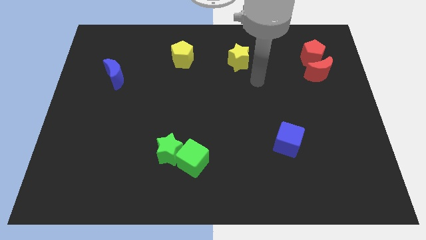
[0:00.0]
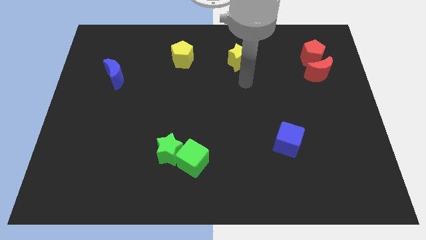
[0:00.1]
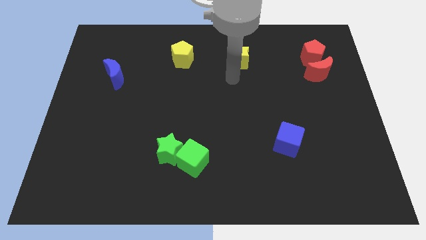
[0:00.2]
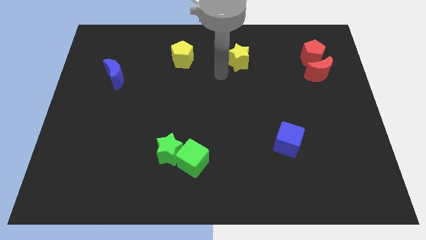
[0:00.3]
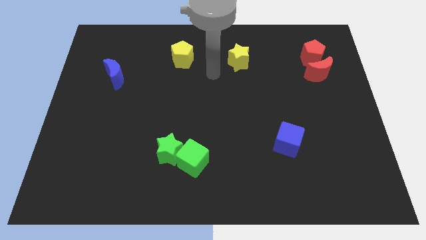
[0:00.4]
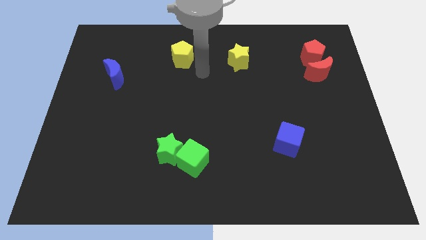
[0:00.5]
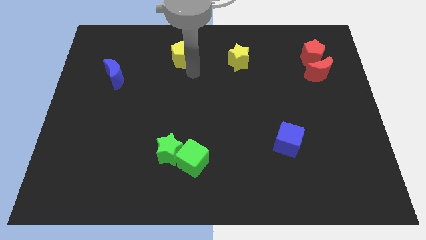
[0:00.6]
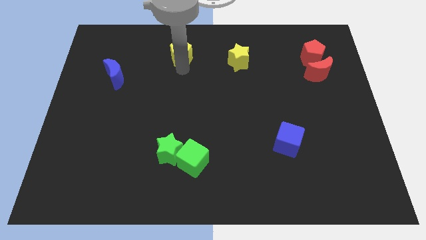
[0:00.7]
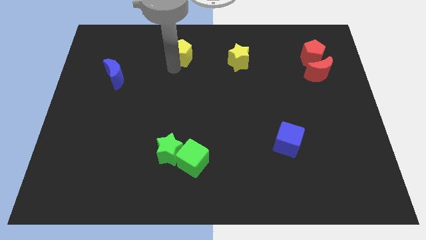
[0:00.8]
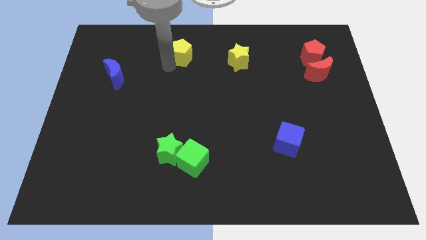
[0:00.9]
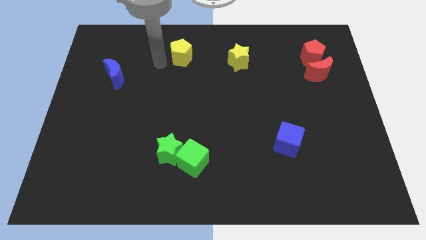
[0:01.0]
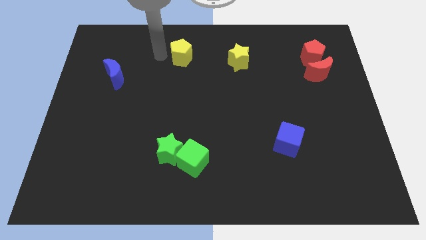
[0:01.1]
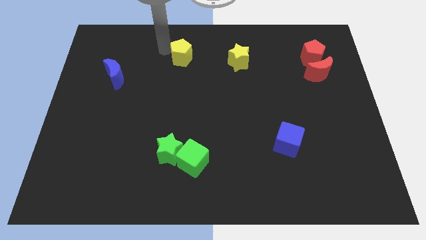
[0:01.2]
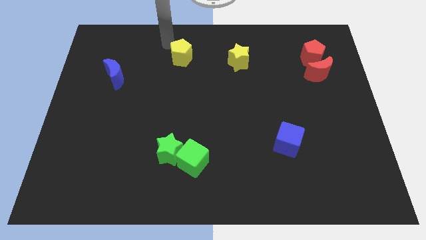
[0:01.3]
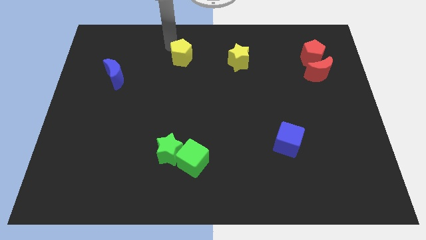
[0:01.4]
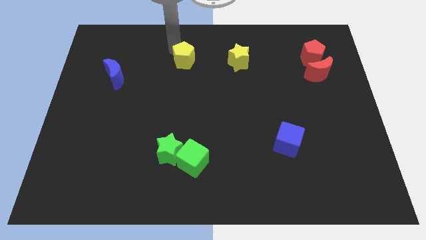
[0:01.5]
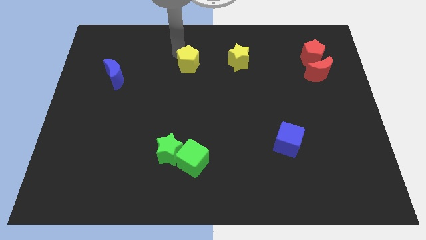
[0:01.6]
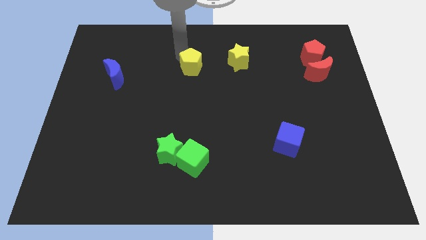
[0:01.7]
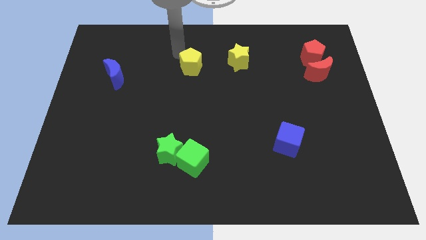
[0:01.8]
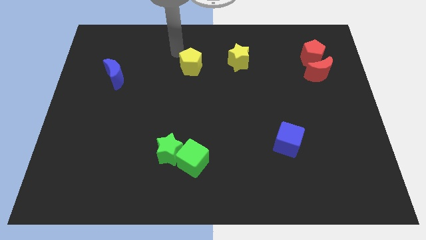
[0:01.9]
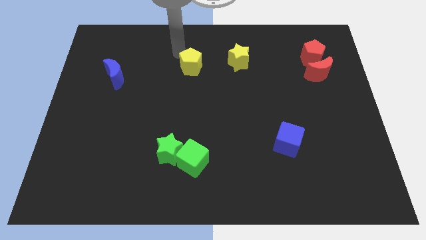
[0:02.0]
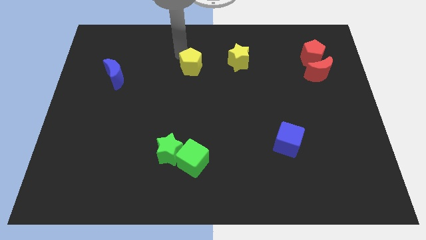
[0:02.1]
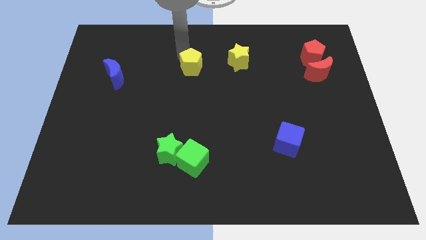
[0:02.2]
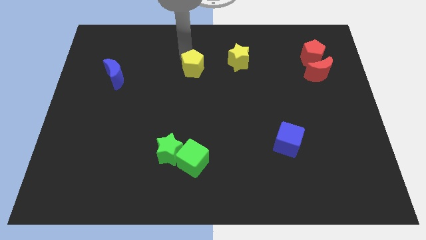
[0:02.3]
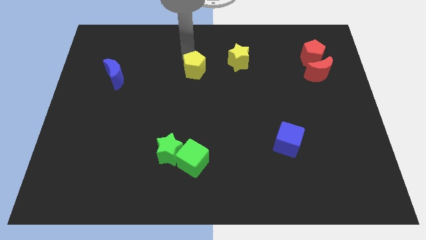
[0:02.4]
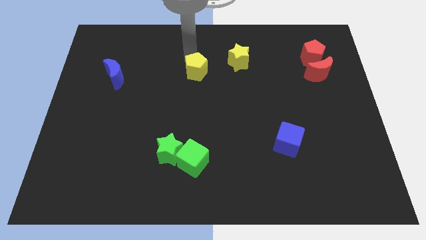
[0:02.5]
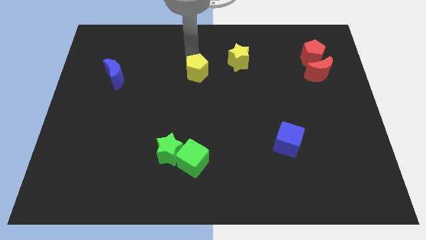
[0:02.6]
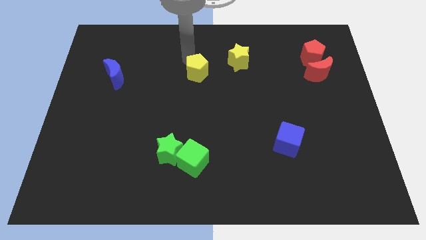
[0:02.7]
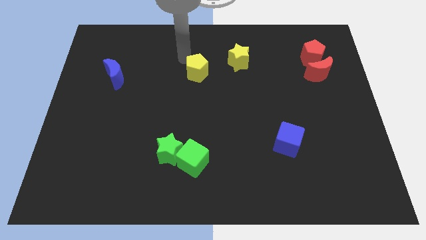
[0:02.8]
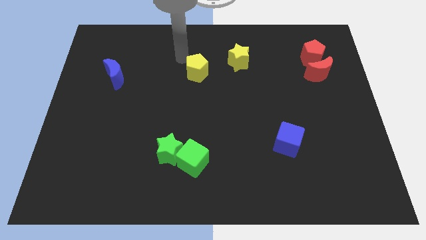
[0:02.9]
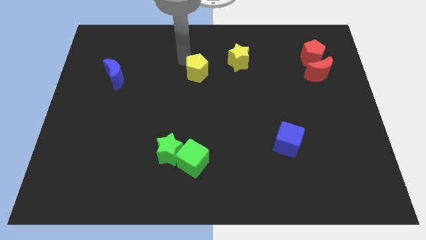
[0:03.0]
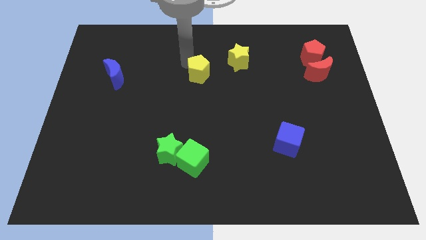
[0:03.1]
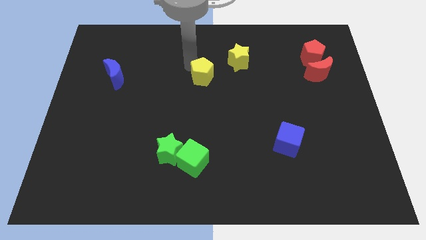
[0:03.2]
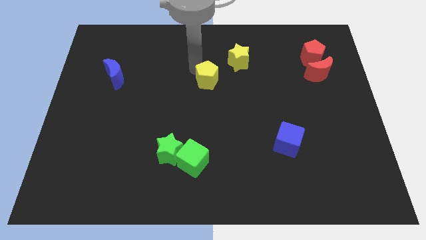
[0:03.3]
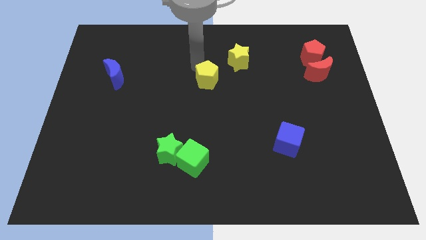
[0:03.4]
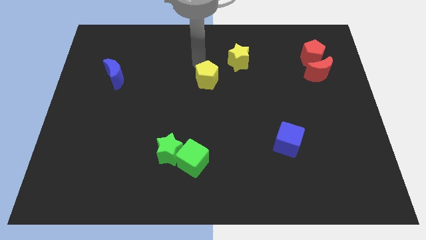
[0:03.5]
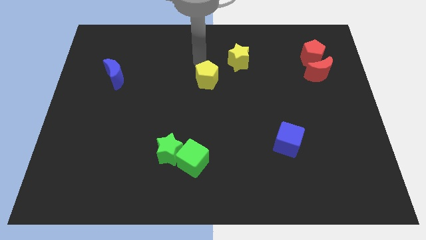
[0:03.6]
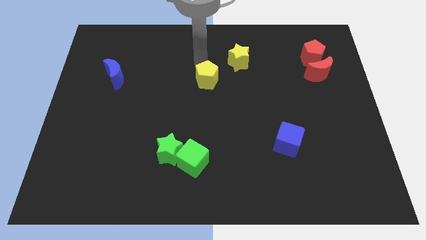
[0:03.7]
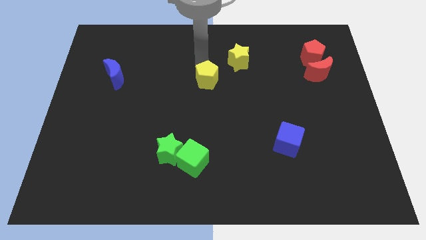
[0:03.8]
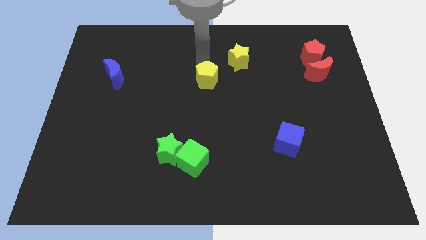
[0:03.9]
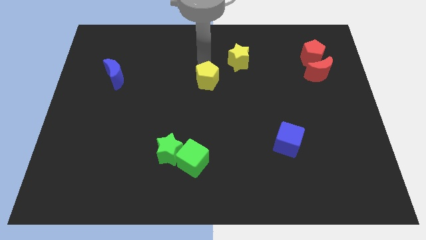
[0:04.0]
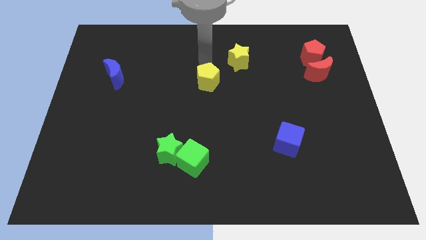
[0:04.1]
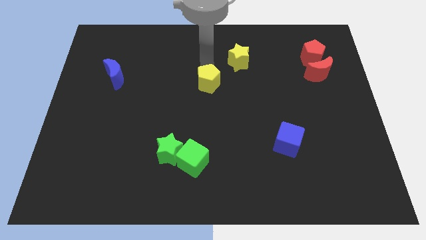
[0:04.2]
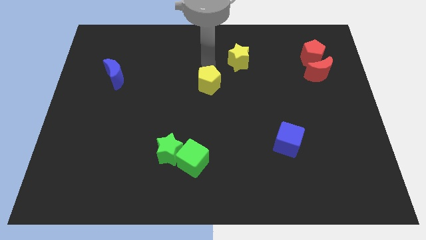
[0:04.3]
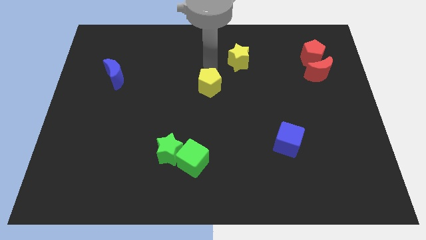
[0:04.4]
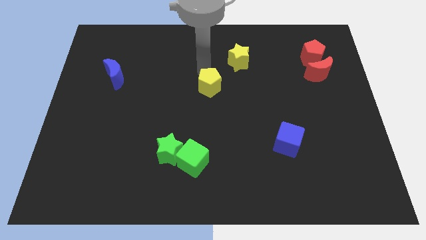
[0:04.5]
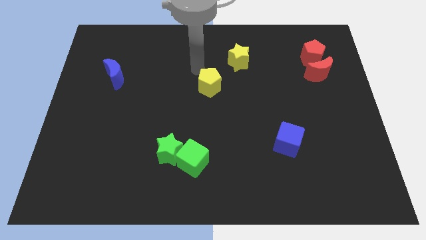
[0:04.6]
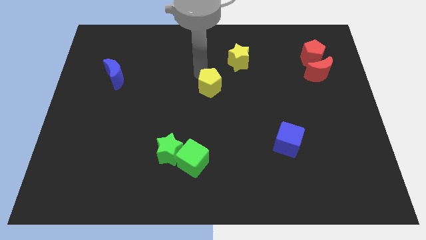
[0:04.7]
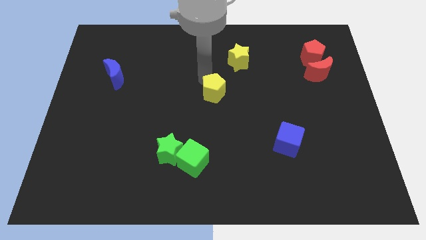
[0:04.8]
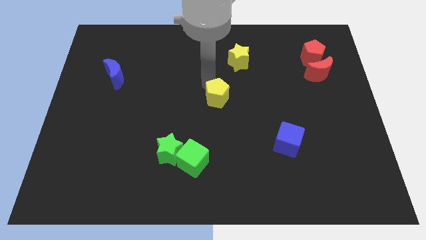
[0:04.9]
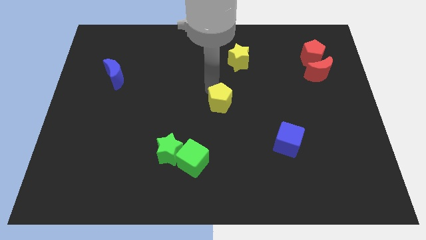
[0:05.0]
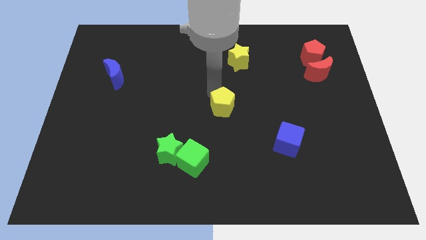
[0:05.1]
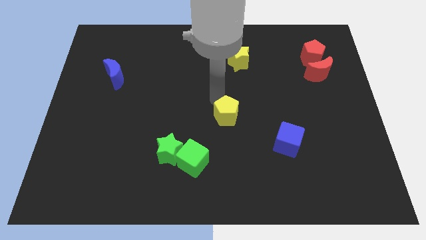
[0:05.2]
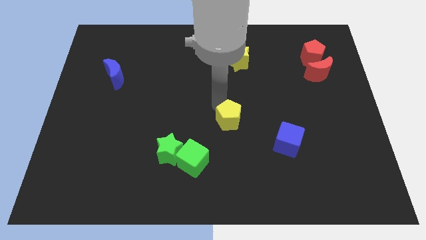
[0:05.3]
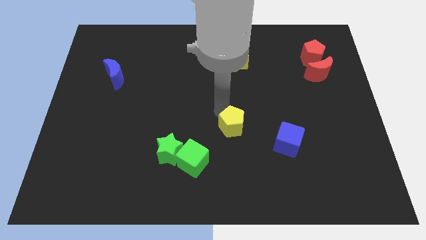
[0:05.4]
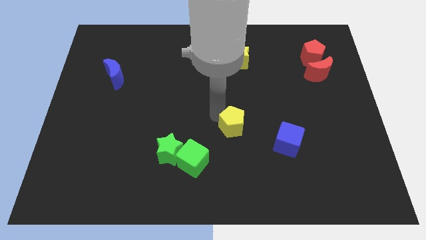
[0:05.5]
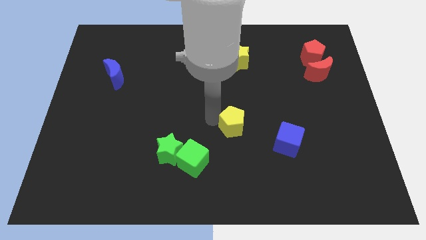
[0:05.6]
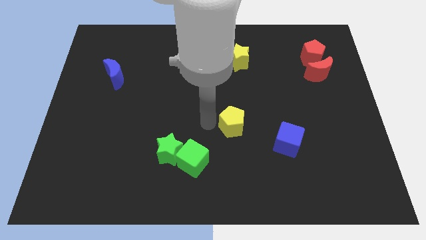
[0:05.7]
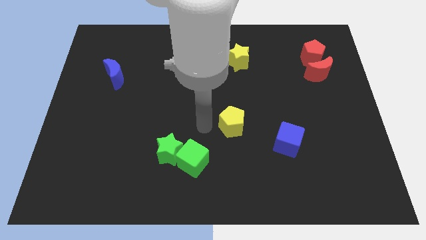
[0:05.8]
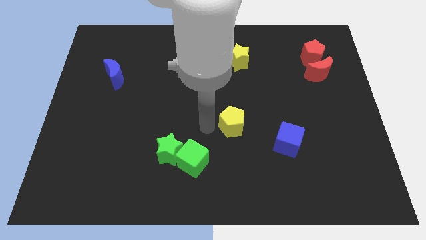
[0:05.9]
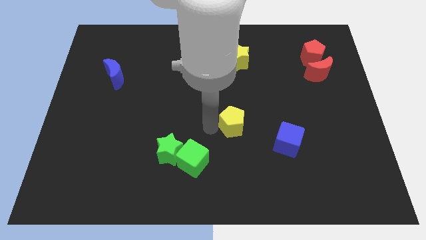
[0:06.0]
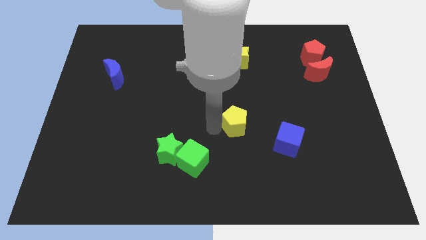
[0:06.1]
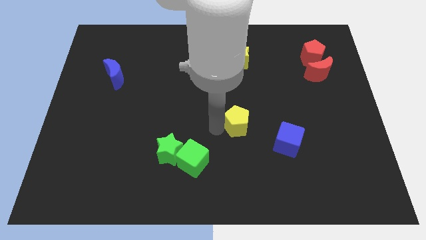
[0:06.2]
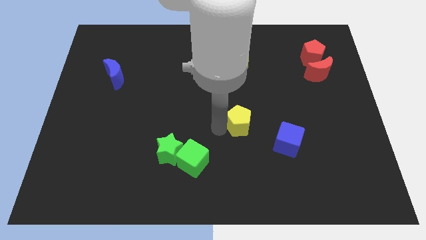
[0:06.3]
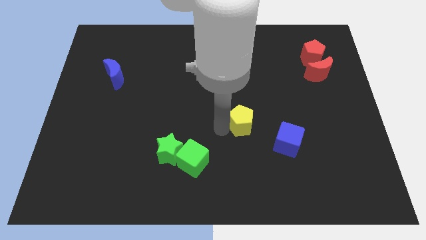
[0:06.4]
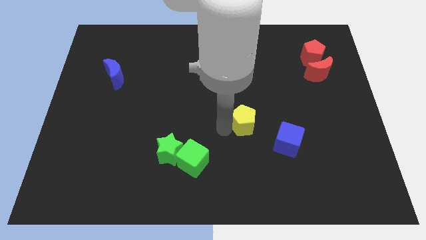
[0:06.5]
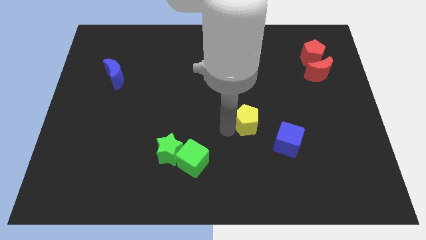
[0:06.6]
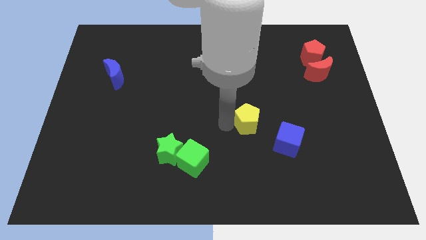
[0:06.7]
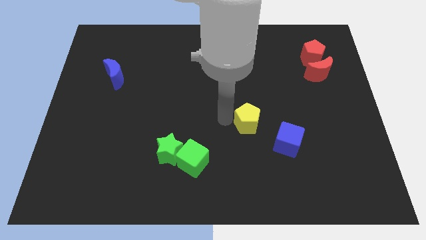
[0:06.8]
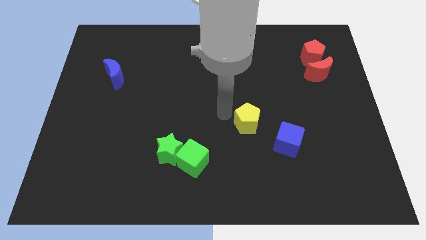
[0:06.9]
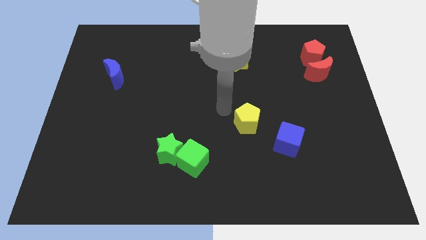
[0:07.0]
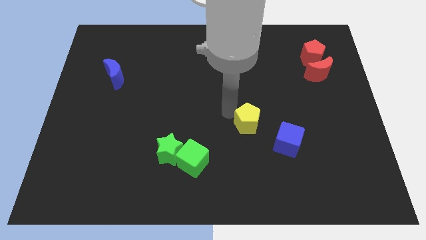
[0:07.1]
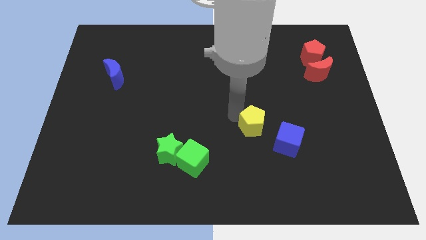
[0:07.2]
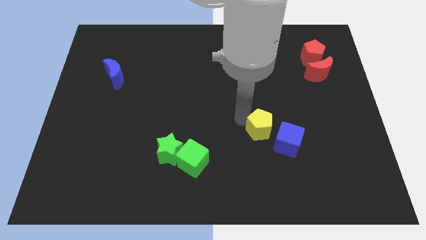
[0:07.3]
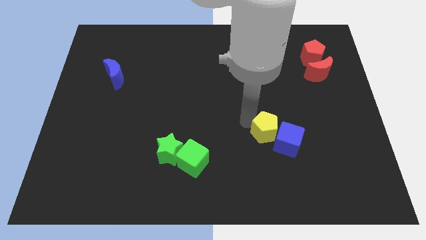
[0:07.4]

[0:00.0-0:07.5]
slide the yellow pentagon towards the blue cube
